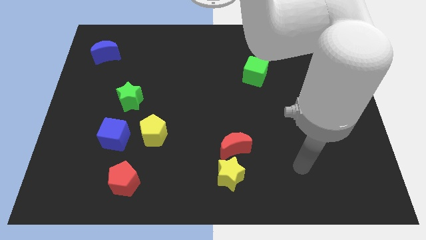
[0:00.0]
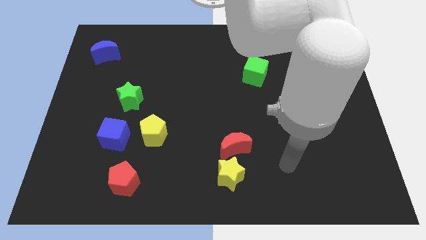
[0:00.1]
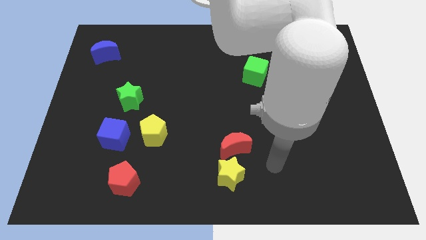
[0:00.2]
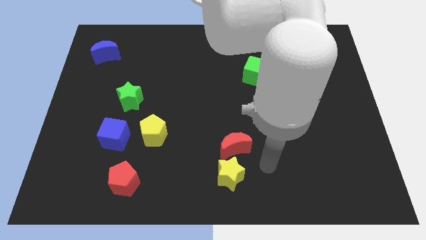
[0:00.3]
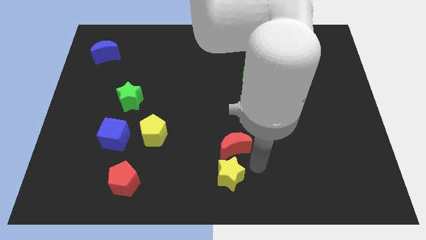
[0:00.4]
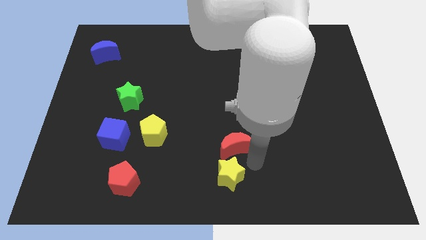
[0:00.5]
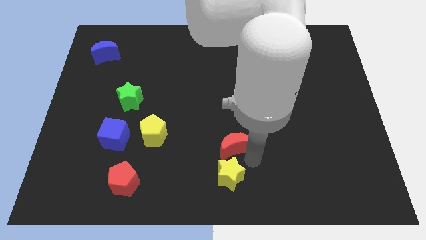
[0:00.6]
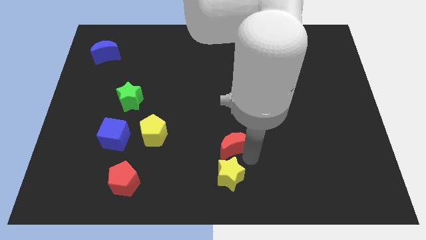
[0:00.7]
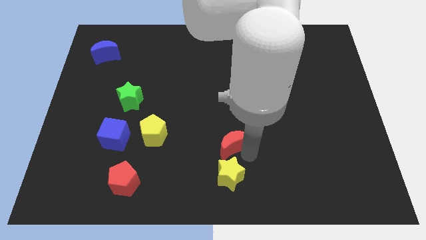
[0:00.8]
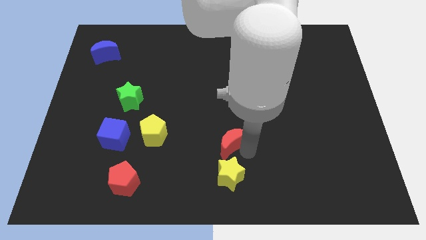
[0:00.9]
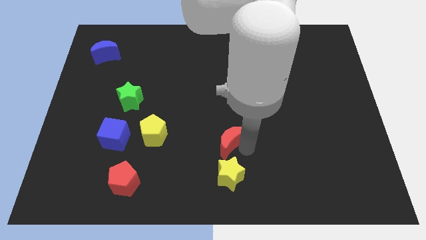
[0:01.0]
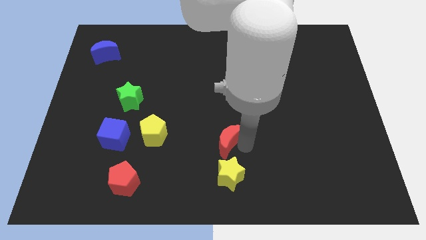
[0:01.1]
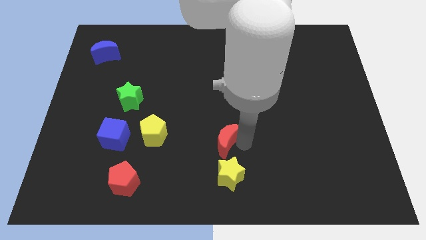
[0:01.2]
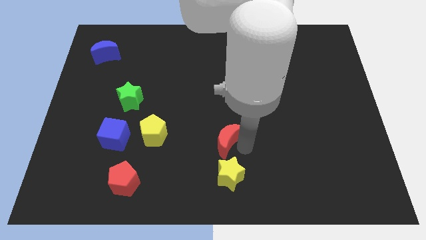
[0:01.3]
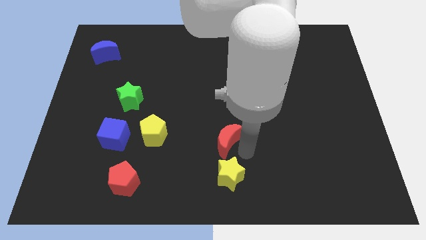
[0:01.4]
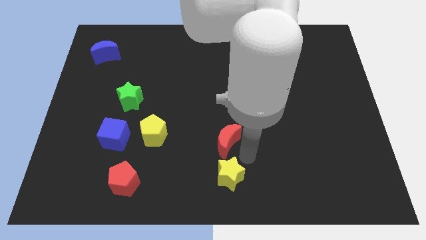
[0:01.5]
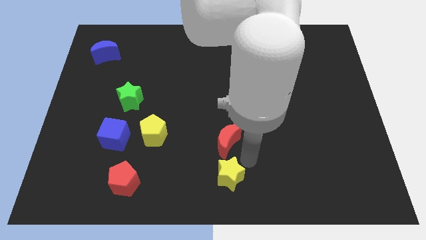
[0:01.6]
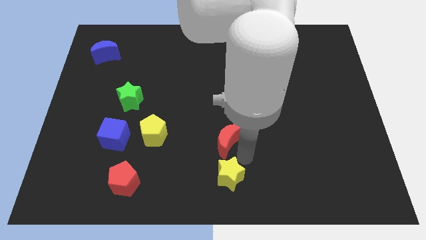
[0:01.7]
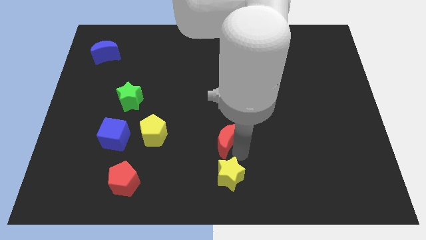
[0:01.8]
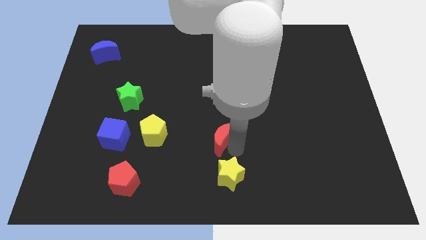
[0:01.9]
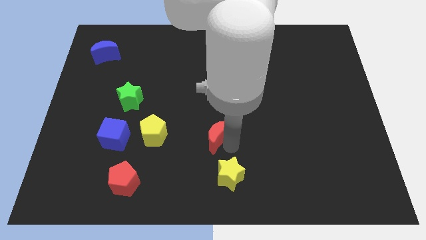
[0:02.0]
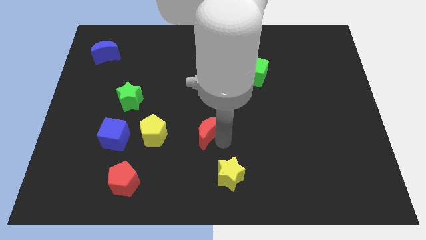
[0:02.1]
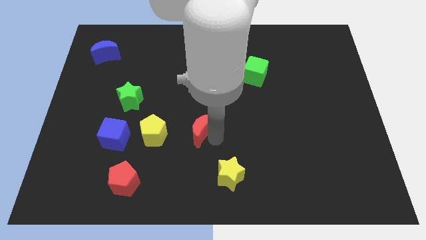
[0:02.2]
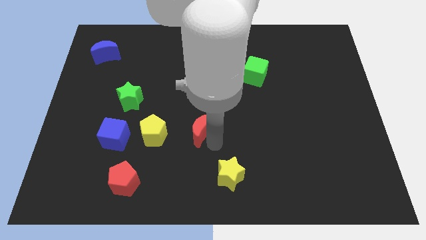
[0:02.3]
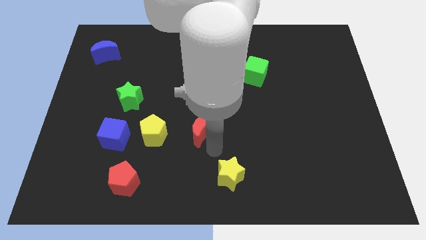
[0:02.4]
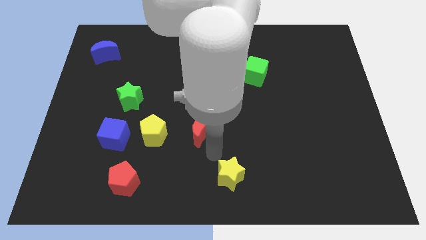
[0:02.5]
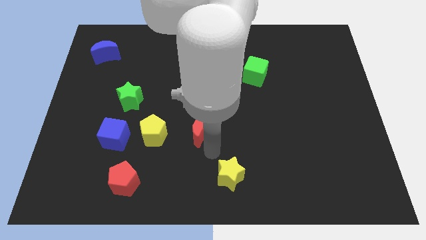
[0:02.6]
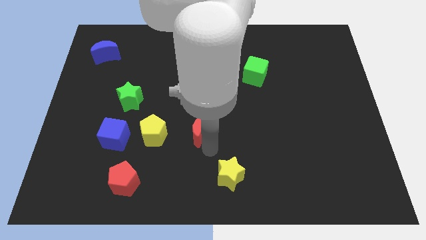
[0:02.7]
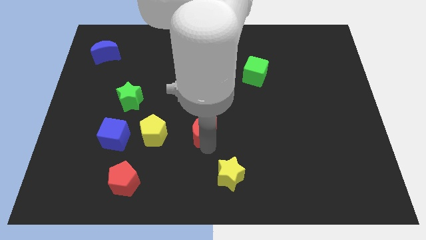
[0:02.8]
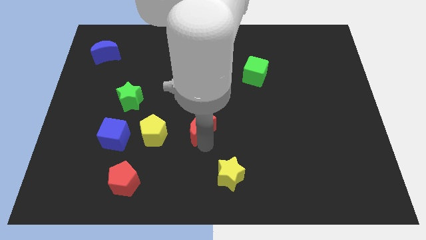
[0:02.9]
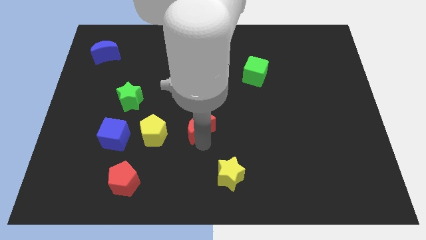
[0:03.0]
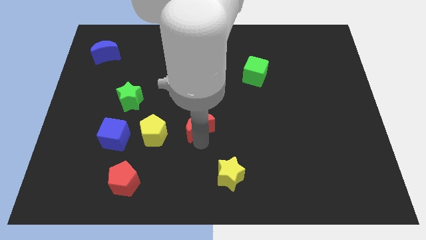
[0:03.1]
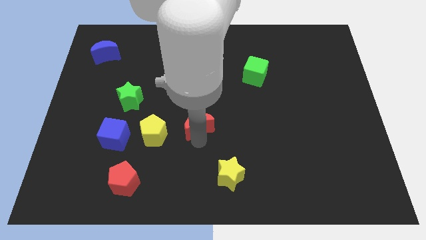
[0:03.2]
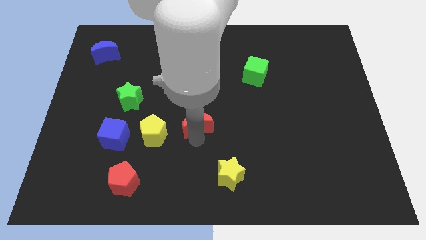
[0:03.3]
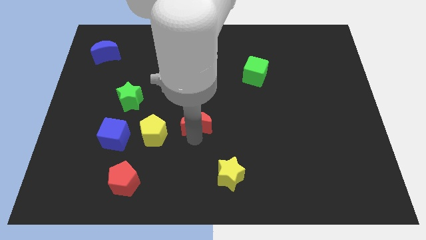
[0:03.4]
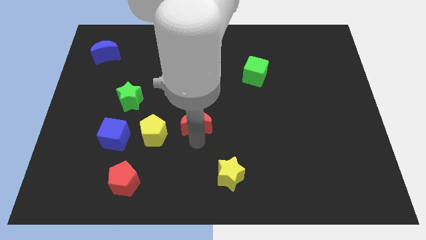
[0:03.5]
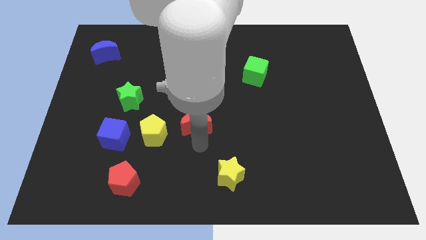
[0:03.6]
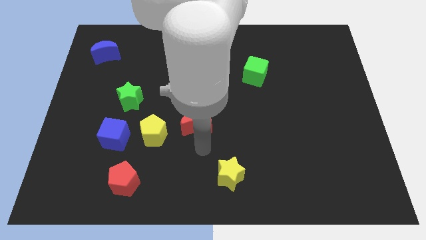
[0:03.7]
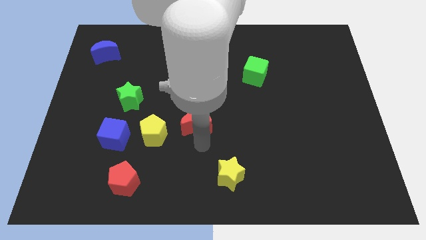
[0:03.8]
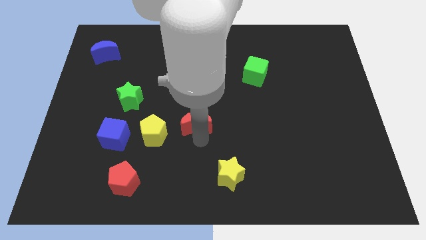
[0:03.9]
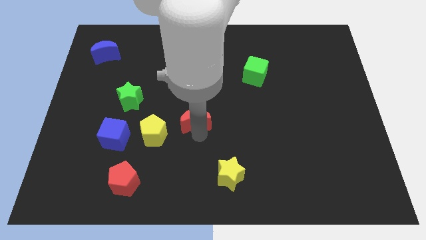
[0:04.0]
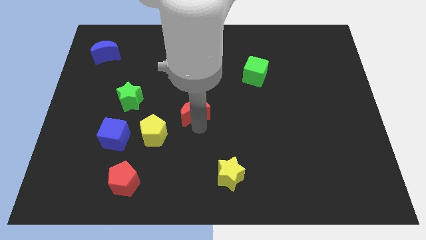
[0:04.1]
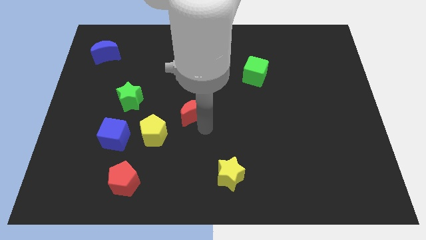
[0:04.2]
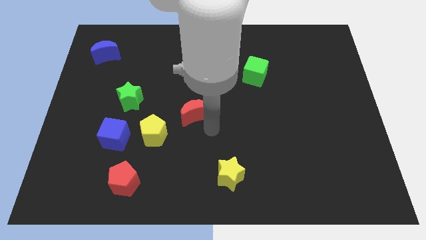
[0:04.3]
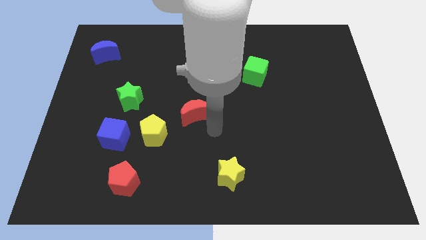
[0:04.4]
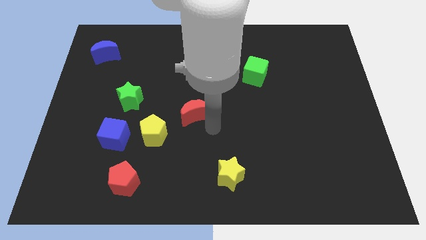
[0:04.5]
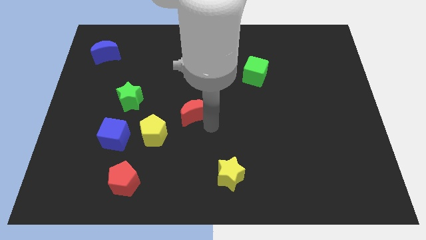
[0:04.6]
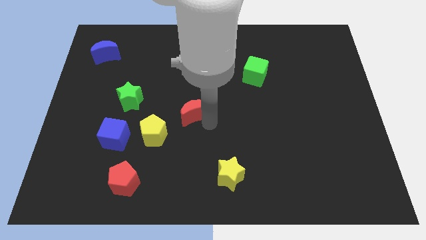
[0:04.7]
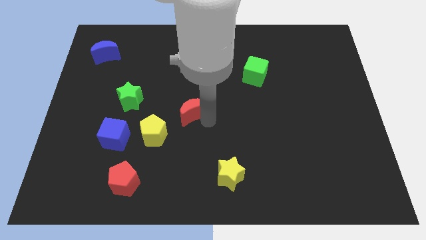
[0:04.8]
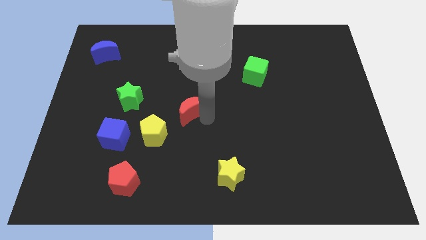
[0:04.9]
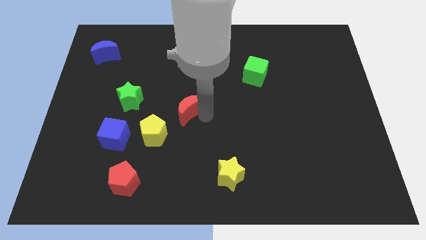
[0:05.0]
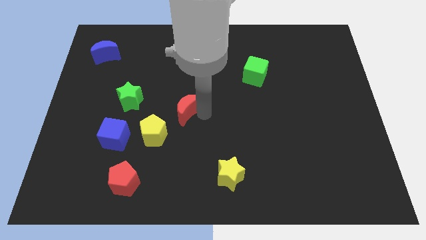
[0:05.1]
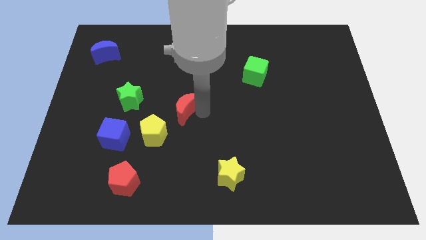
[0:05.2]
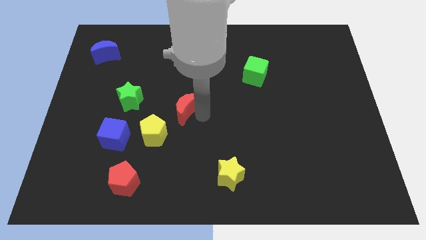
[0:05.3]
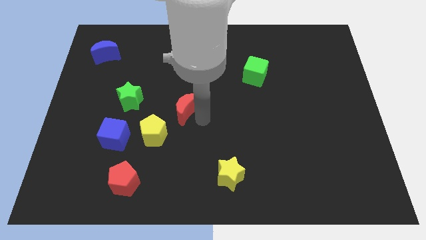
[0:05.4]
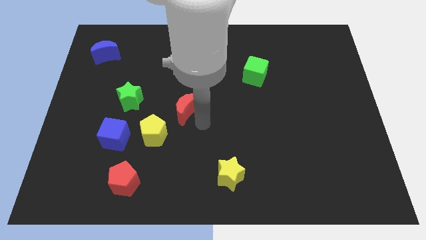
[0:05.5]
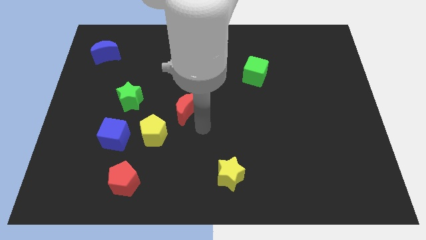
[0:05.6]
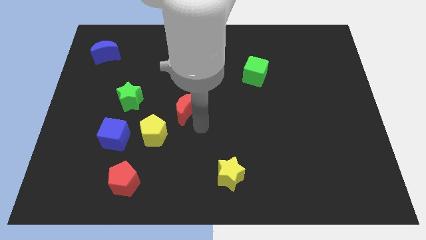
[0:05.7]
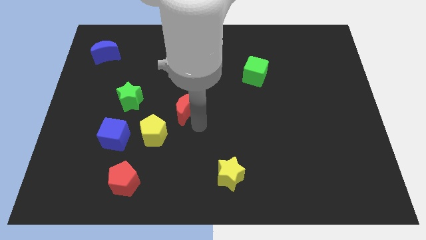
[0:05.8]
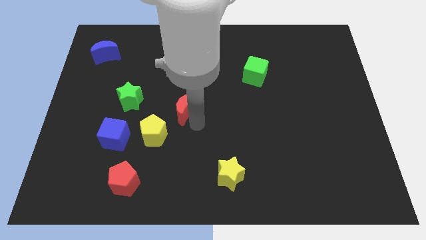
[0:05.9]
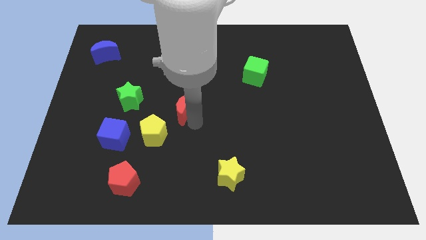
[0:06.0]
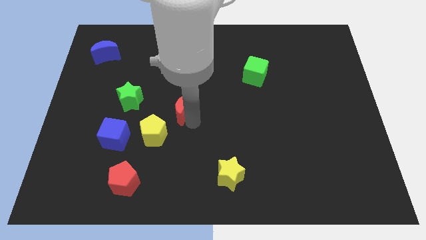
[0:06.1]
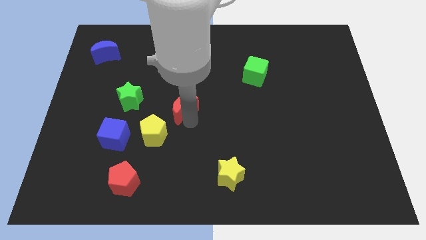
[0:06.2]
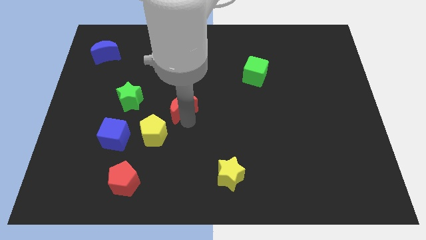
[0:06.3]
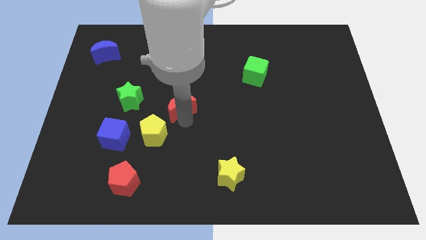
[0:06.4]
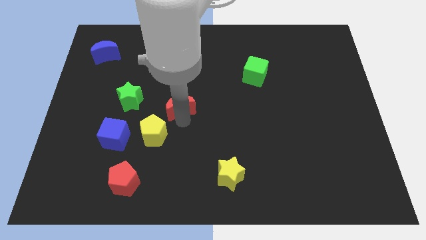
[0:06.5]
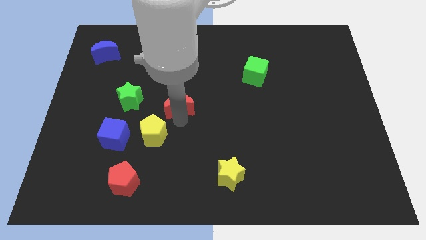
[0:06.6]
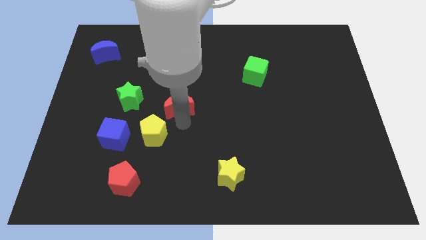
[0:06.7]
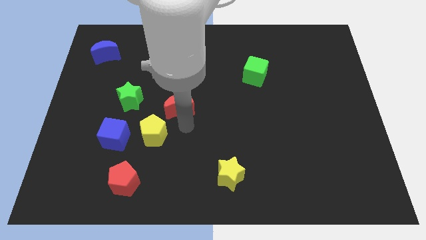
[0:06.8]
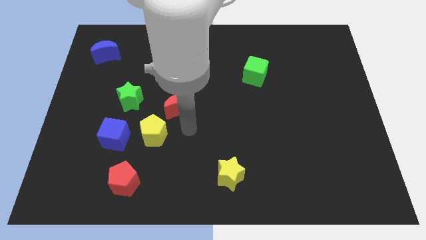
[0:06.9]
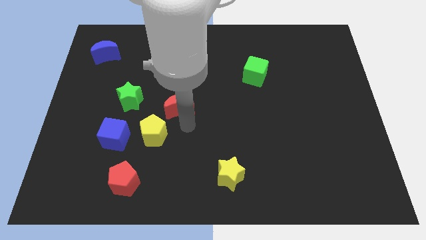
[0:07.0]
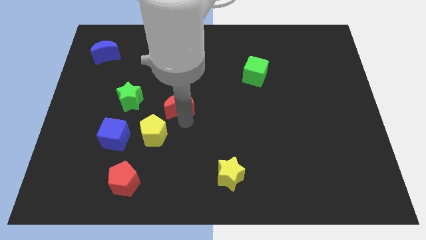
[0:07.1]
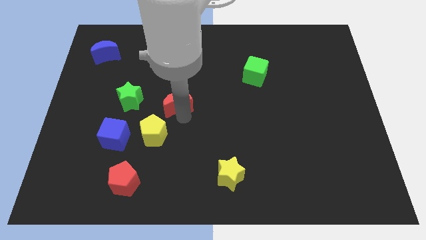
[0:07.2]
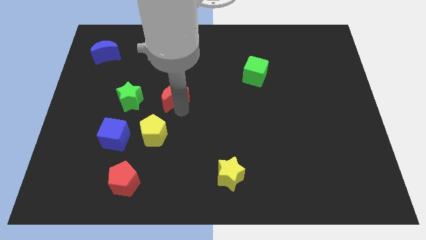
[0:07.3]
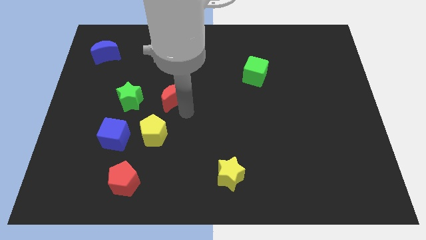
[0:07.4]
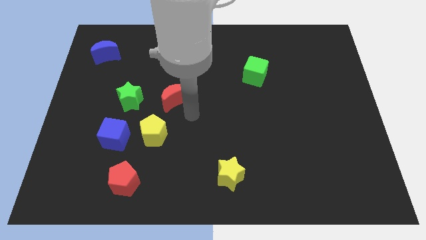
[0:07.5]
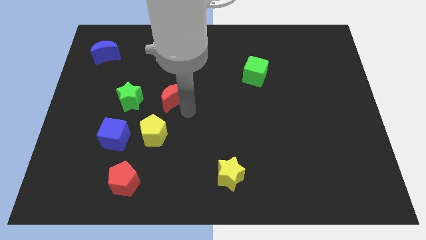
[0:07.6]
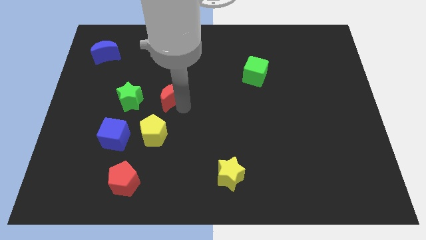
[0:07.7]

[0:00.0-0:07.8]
move the red moon diagonally upwards and left
